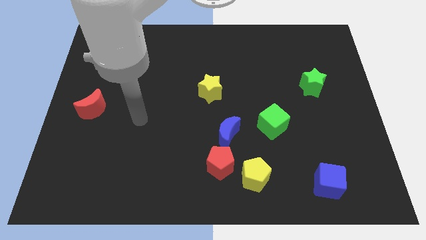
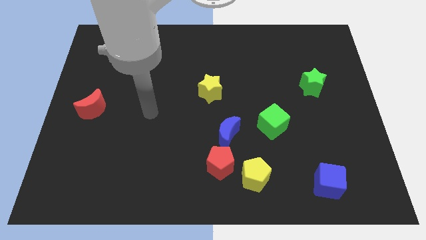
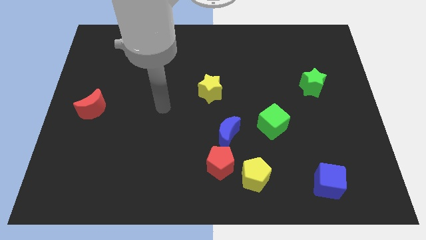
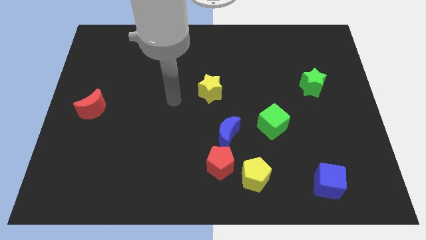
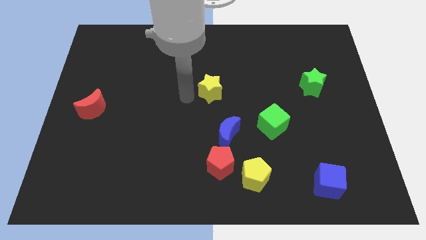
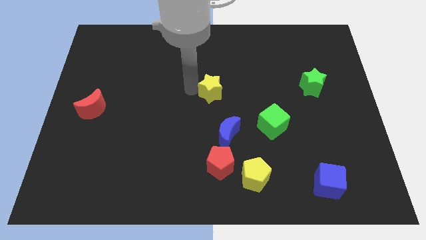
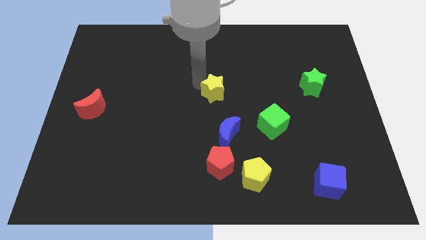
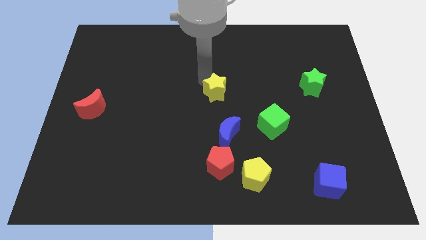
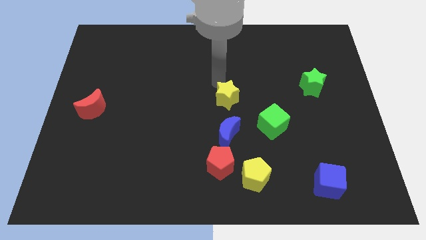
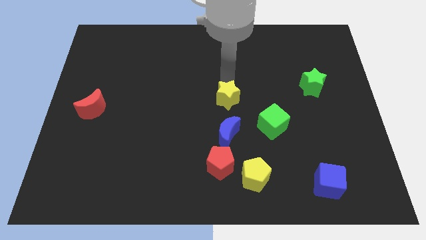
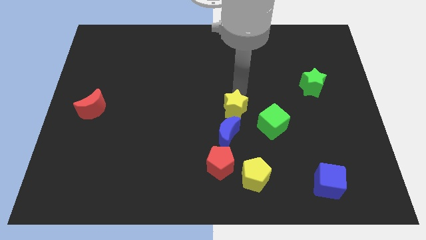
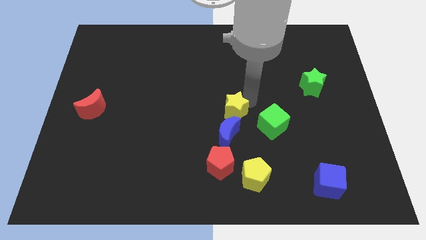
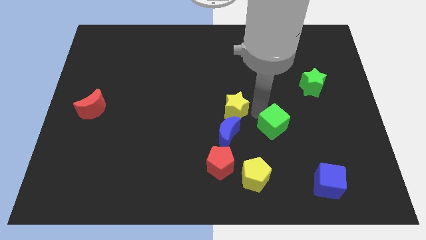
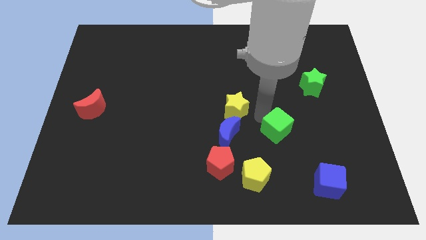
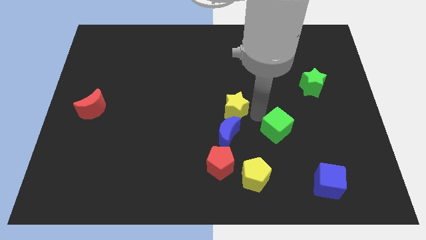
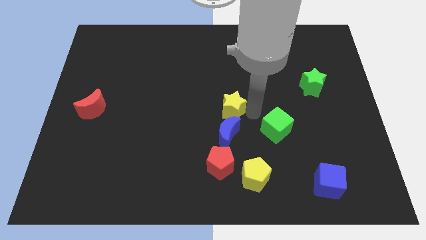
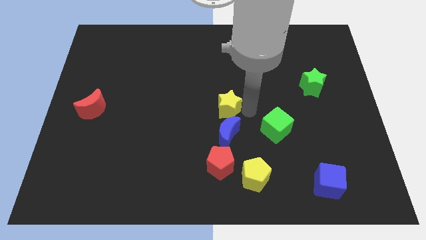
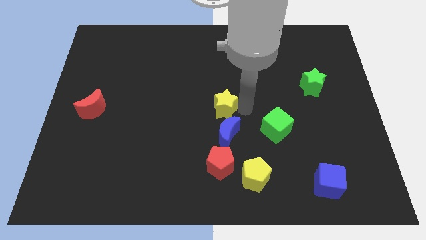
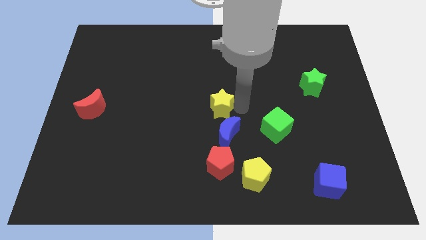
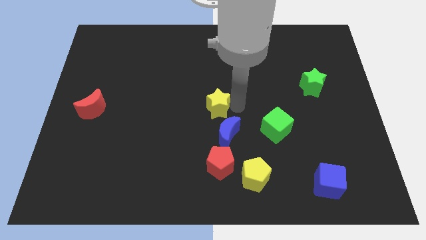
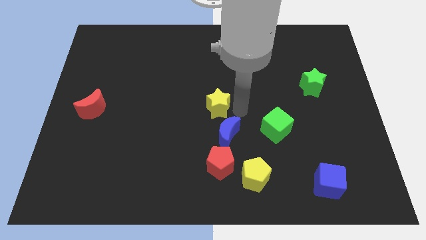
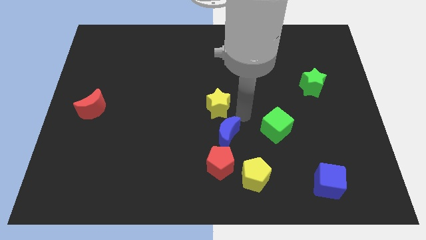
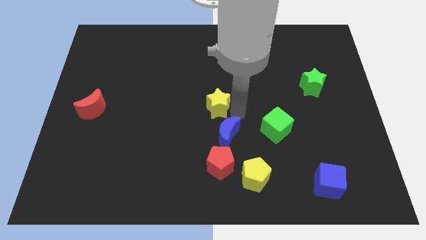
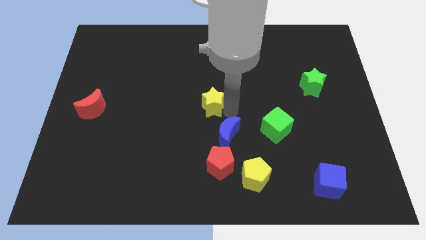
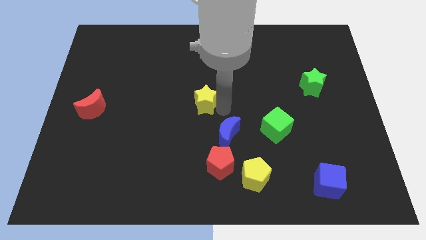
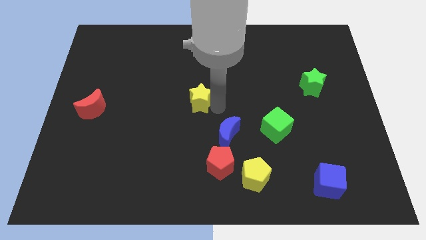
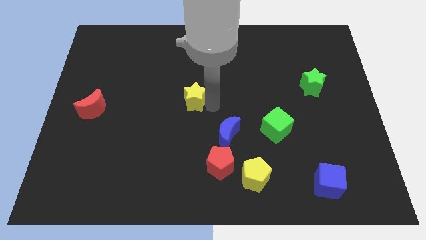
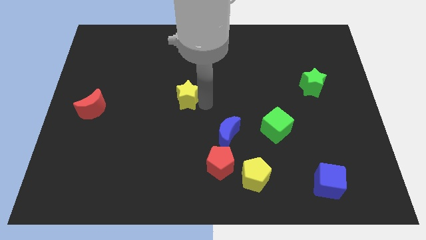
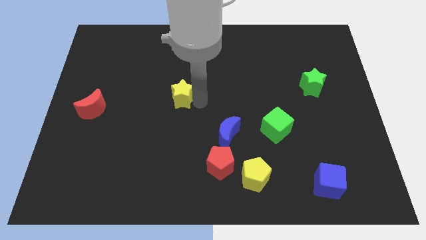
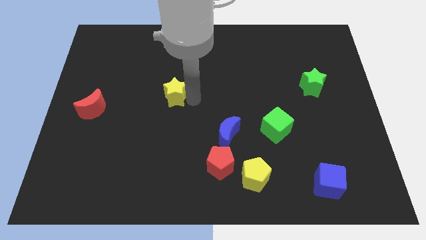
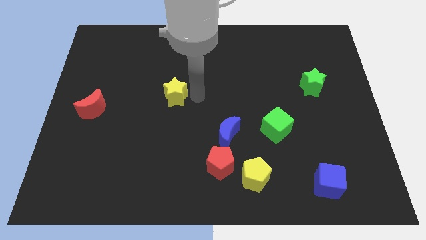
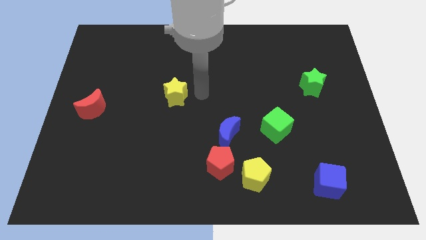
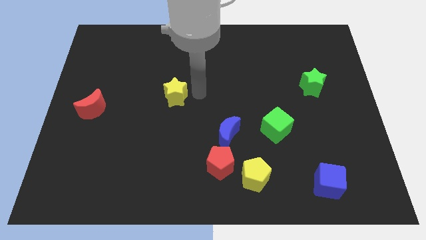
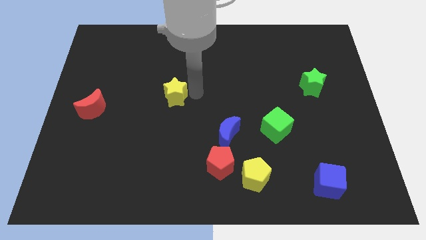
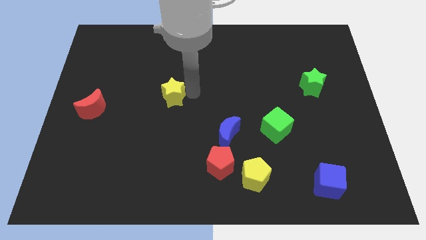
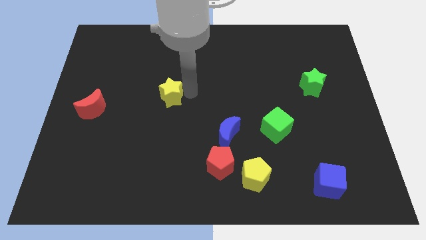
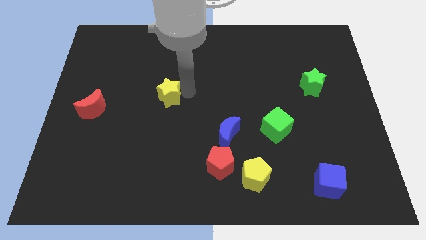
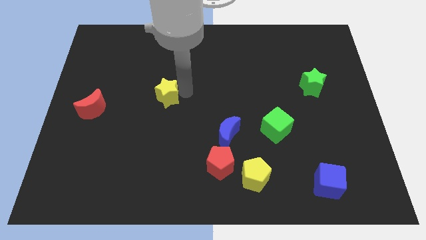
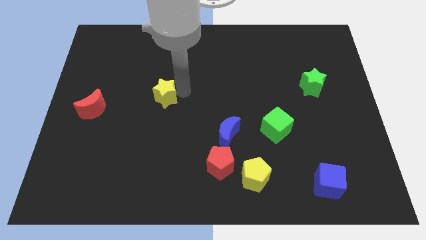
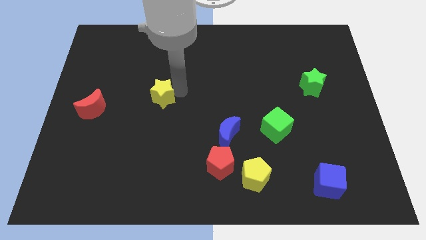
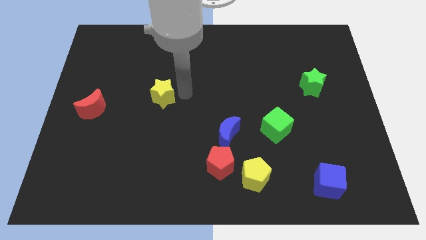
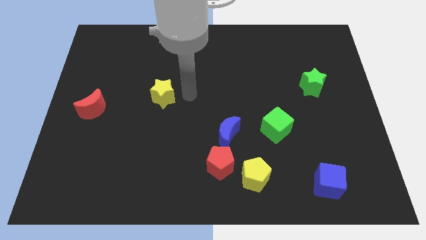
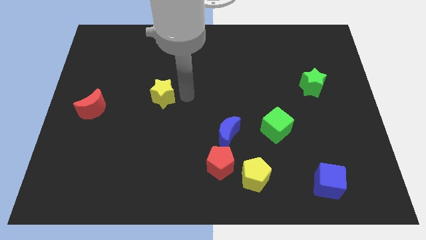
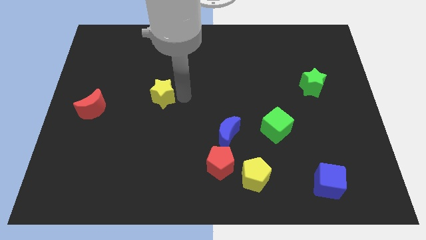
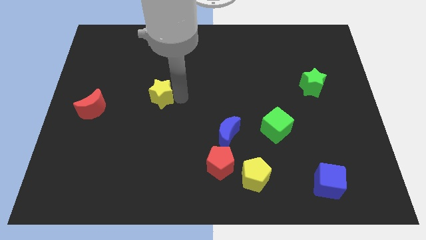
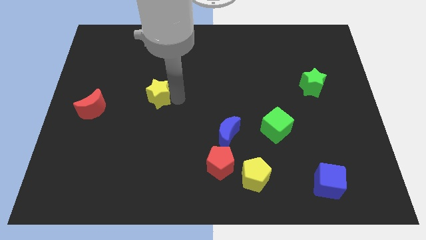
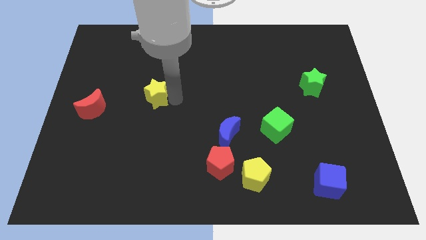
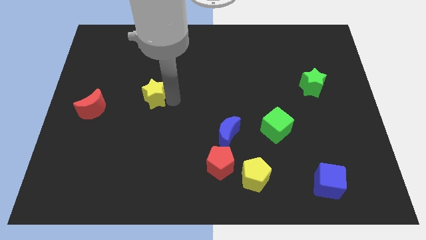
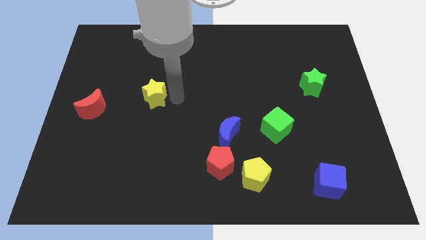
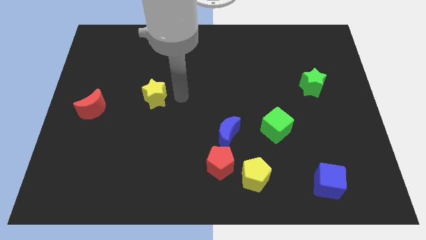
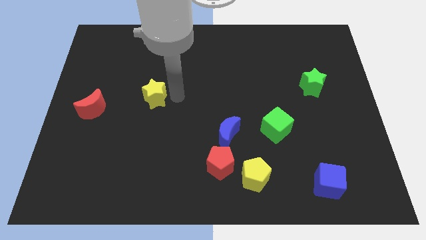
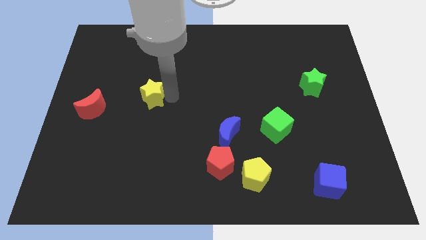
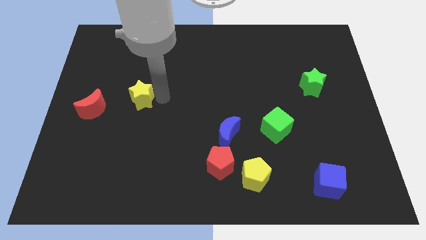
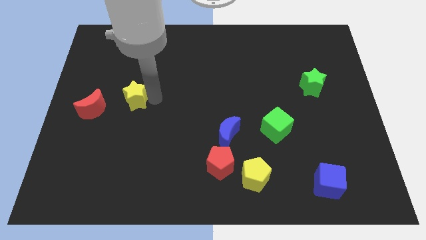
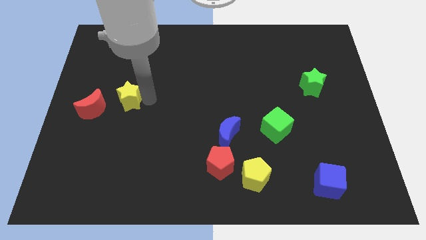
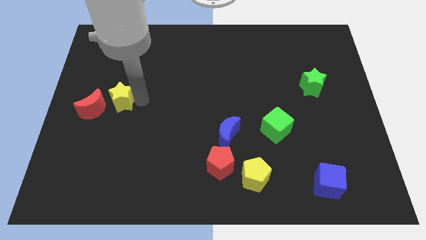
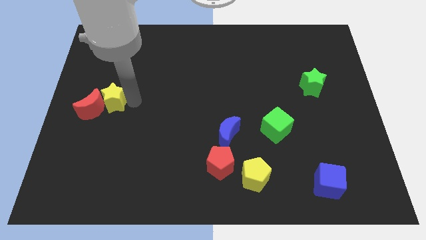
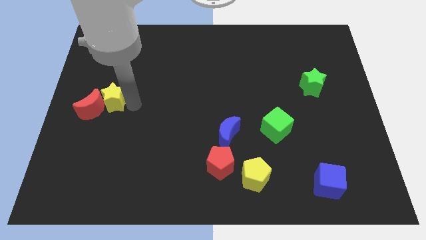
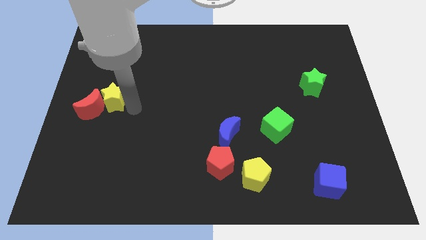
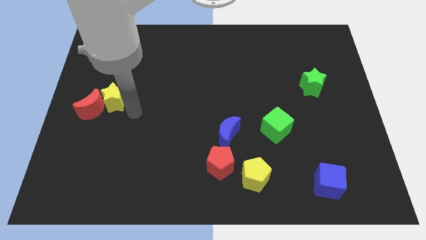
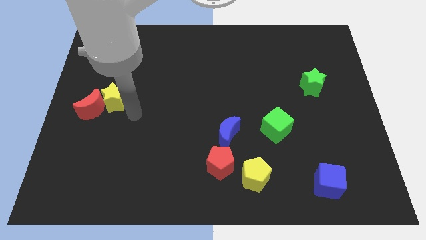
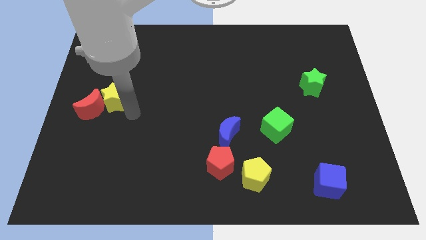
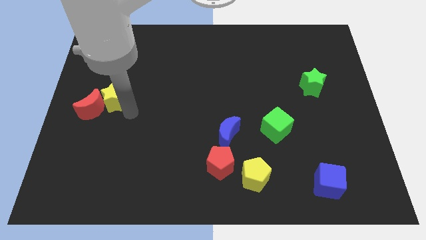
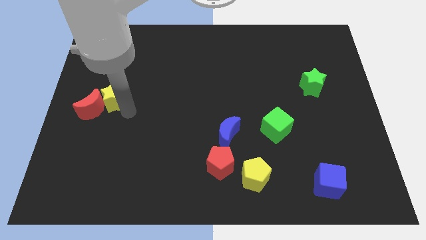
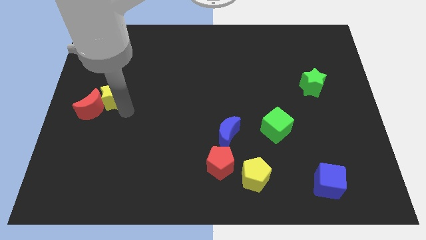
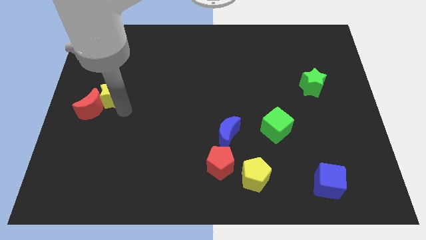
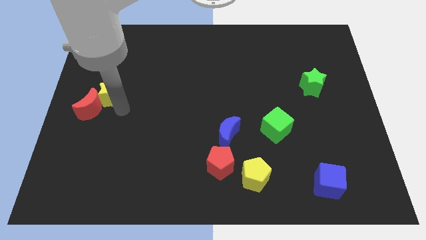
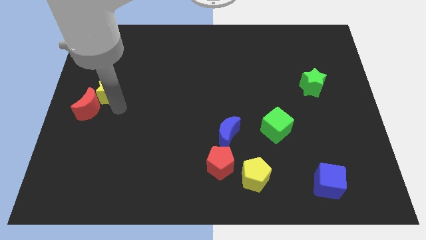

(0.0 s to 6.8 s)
push the yellow star to the left side of the board
